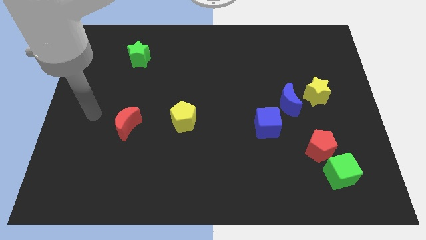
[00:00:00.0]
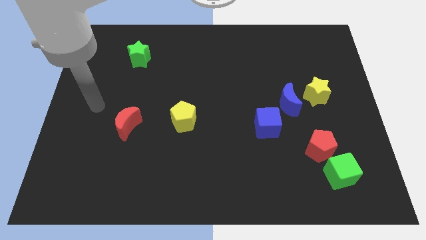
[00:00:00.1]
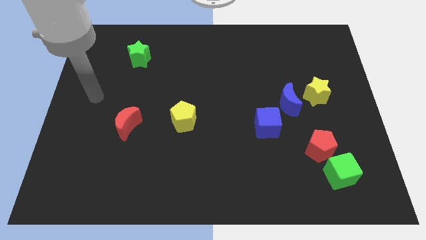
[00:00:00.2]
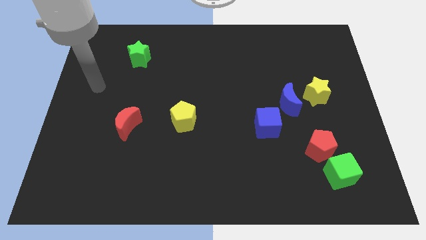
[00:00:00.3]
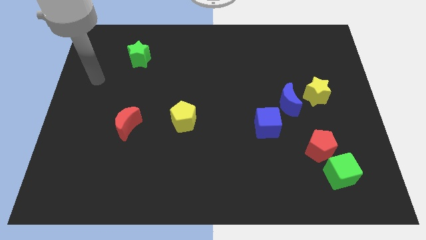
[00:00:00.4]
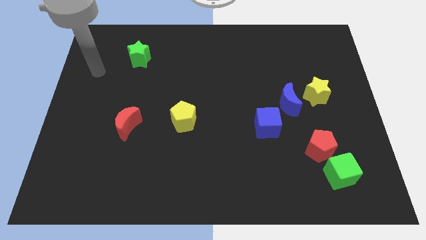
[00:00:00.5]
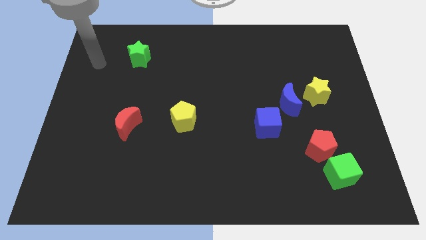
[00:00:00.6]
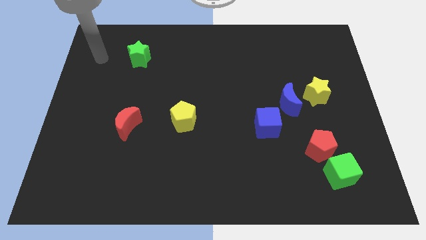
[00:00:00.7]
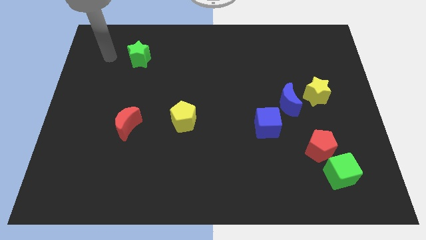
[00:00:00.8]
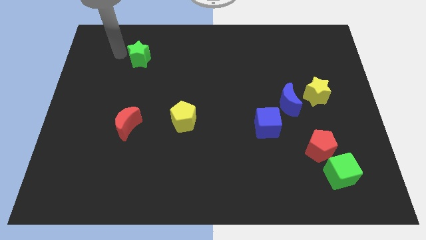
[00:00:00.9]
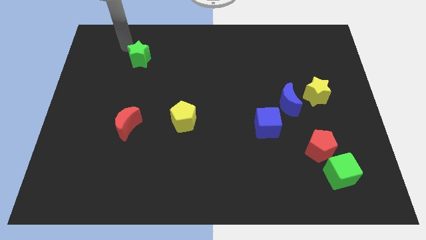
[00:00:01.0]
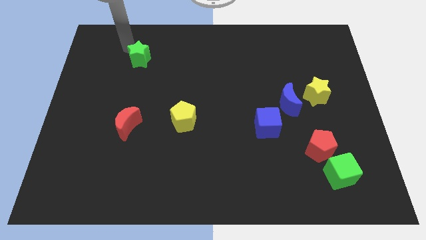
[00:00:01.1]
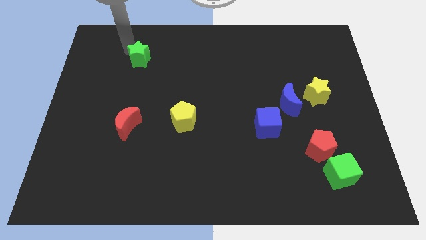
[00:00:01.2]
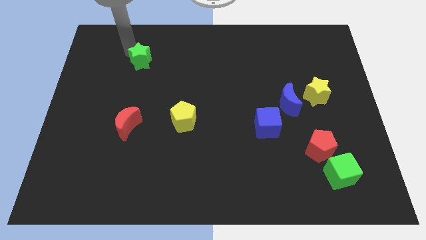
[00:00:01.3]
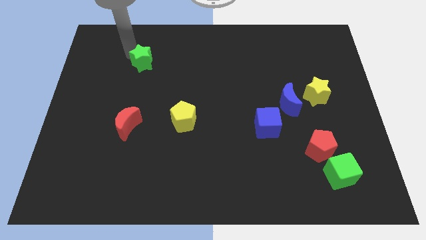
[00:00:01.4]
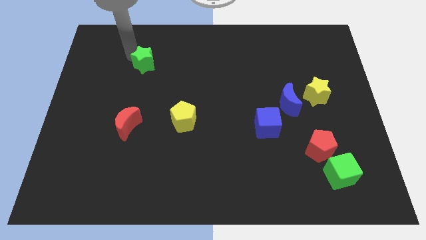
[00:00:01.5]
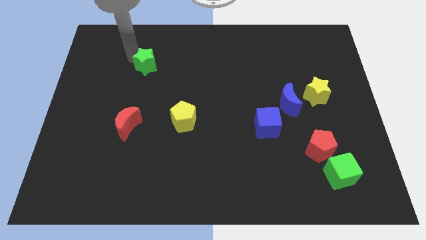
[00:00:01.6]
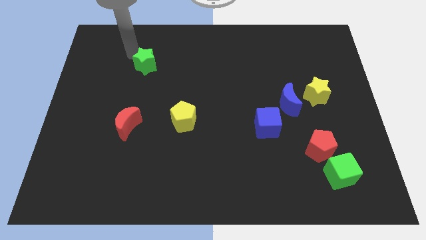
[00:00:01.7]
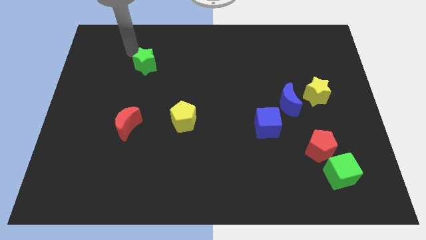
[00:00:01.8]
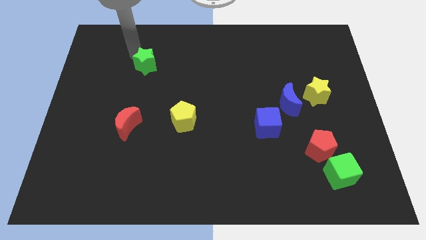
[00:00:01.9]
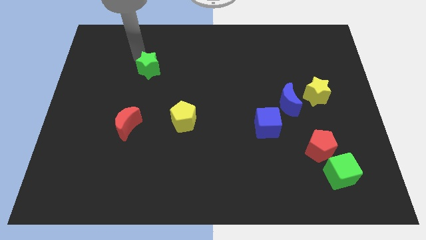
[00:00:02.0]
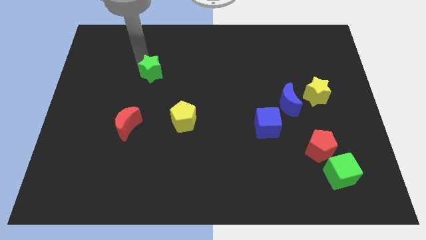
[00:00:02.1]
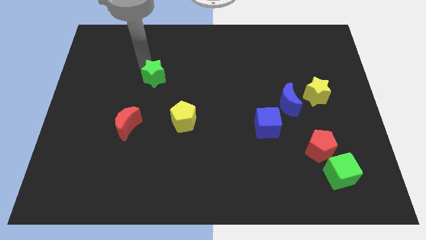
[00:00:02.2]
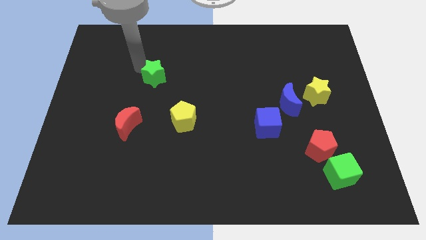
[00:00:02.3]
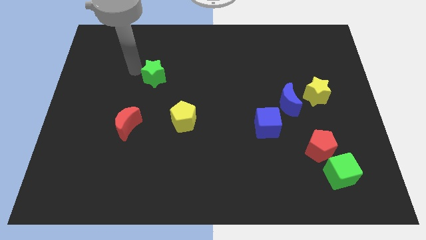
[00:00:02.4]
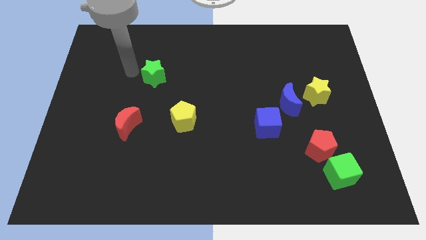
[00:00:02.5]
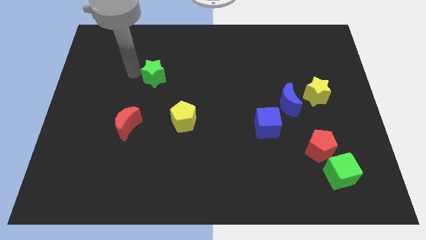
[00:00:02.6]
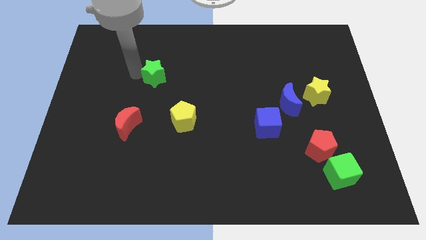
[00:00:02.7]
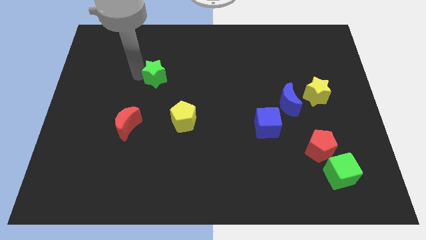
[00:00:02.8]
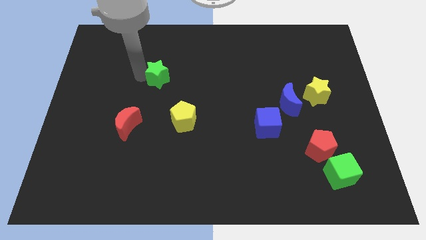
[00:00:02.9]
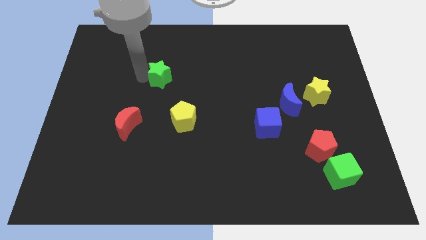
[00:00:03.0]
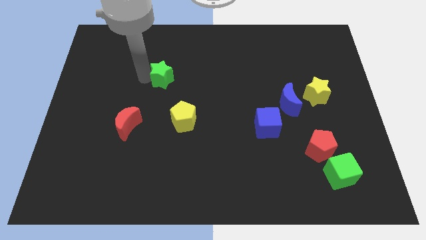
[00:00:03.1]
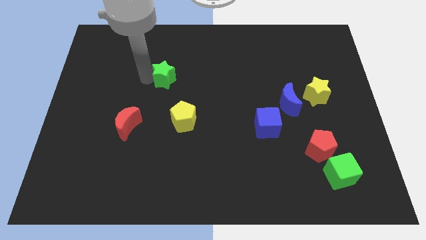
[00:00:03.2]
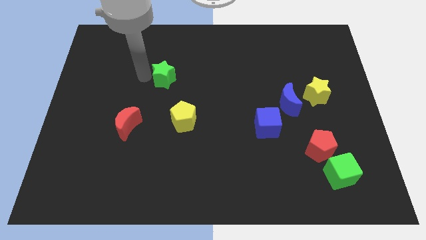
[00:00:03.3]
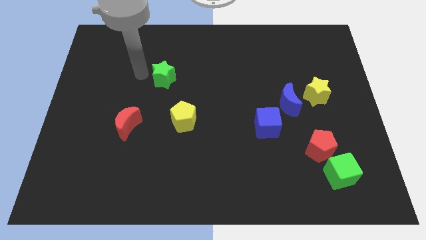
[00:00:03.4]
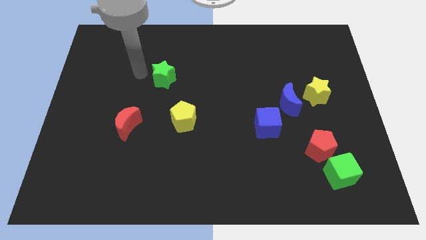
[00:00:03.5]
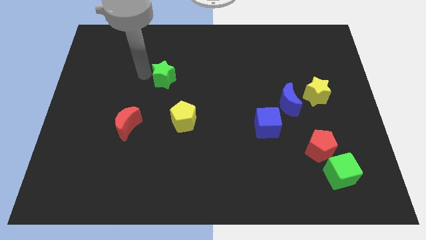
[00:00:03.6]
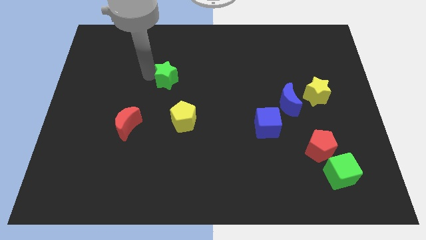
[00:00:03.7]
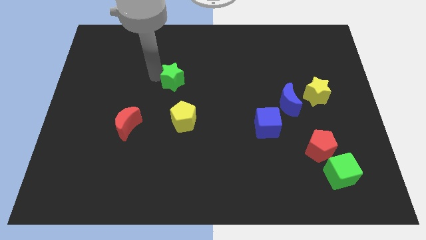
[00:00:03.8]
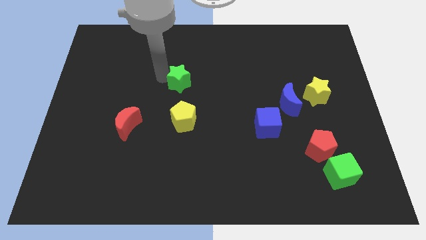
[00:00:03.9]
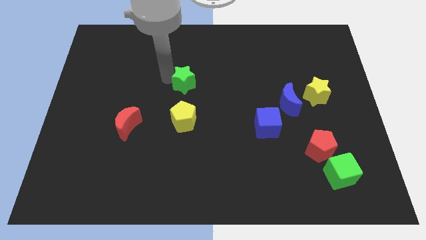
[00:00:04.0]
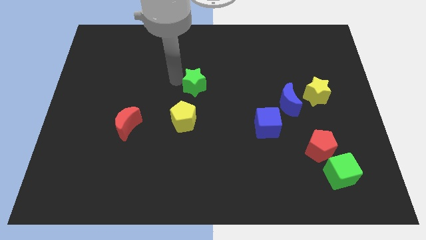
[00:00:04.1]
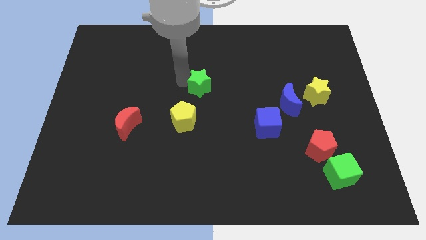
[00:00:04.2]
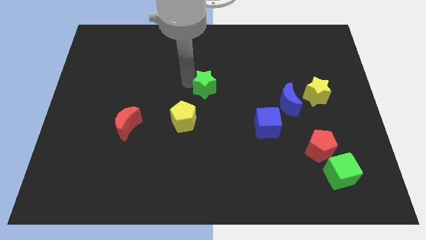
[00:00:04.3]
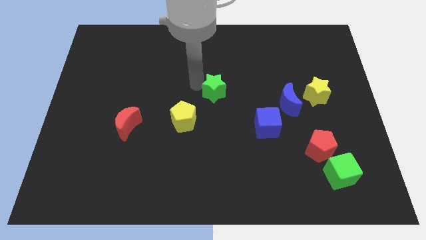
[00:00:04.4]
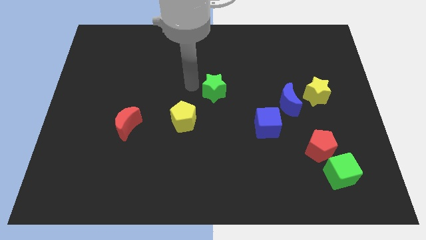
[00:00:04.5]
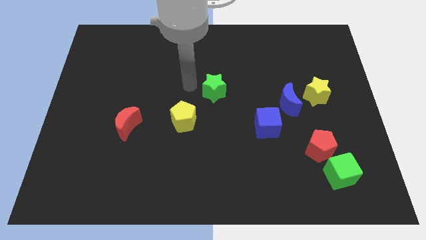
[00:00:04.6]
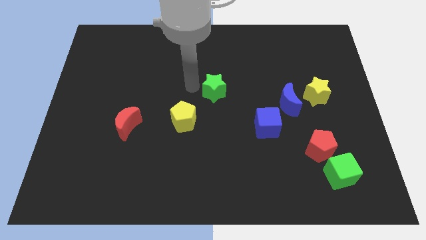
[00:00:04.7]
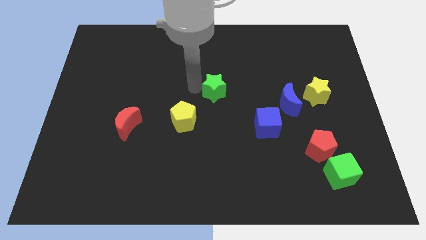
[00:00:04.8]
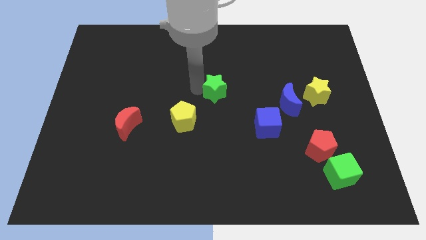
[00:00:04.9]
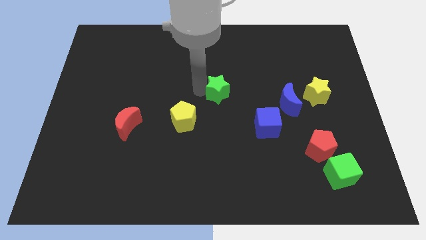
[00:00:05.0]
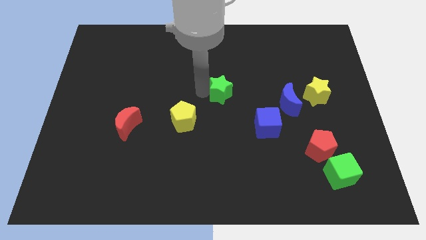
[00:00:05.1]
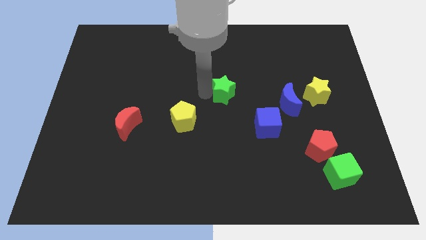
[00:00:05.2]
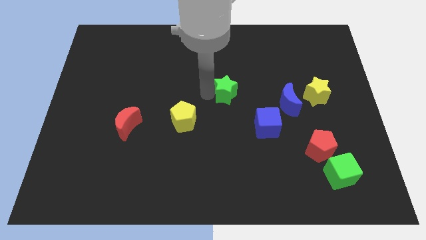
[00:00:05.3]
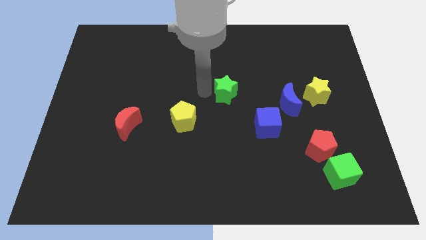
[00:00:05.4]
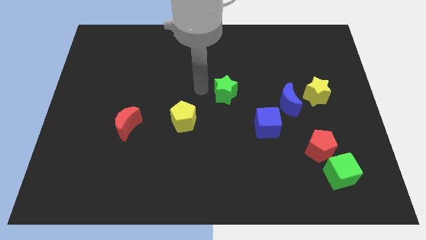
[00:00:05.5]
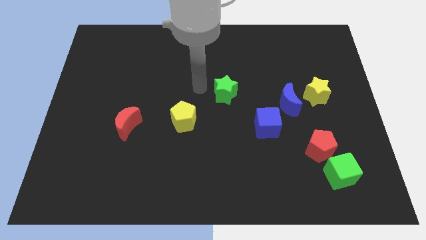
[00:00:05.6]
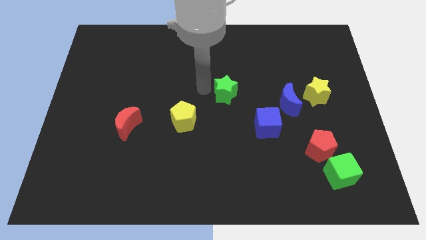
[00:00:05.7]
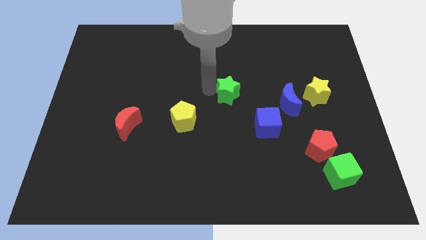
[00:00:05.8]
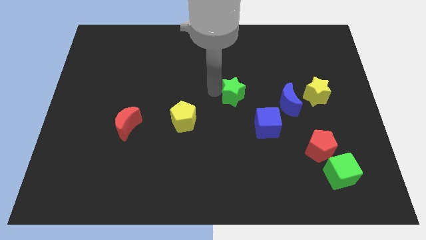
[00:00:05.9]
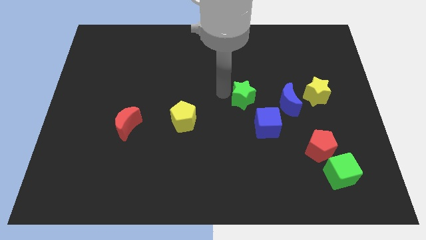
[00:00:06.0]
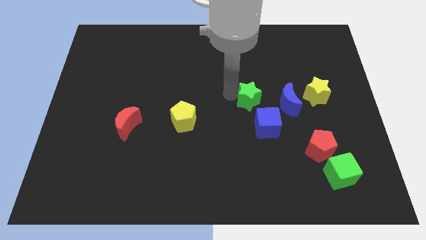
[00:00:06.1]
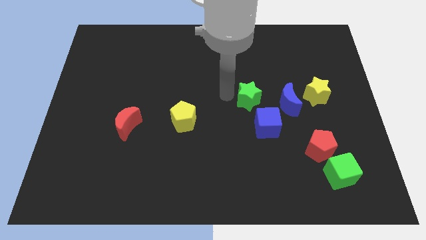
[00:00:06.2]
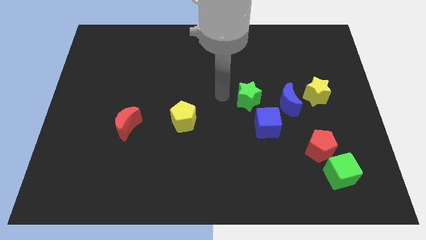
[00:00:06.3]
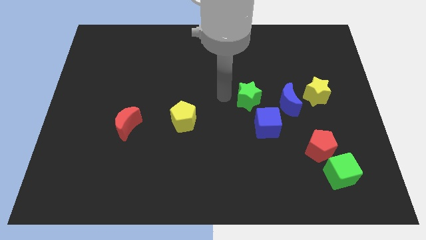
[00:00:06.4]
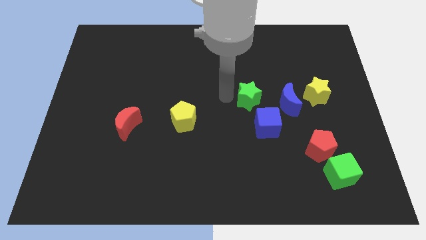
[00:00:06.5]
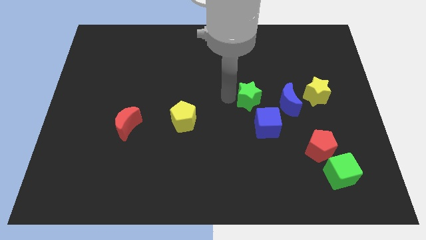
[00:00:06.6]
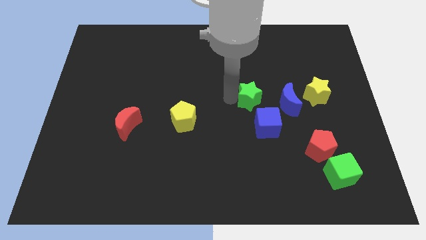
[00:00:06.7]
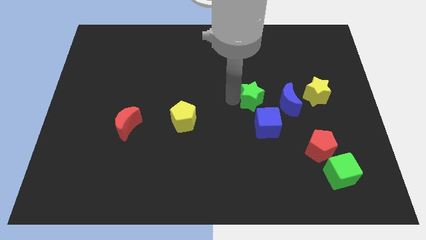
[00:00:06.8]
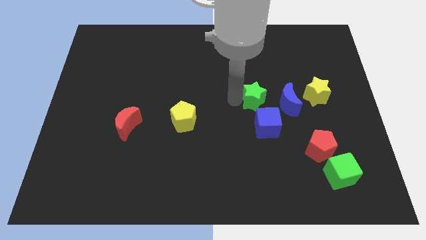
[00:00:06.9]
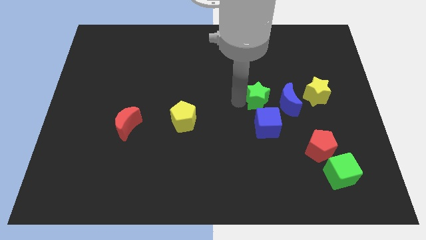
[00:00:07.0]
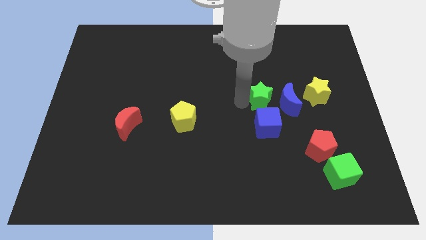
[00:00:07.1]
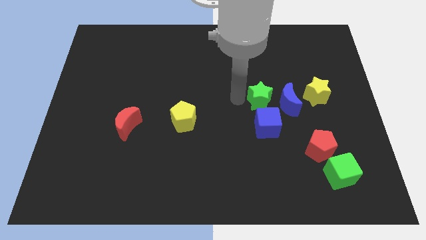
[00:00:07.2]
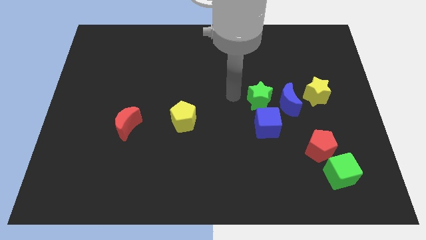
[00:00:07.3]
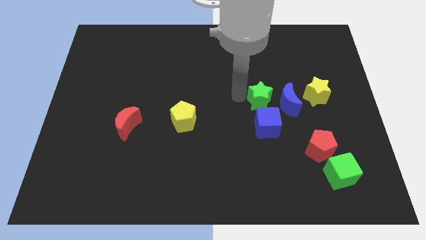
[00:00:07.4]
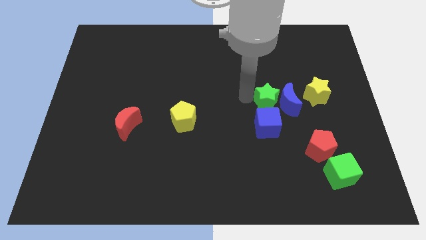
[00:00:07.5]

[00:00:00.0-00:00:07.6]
move the green star close to the blue moon
